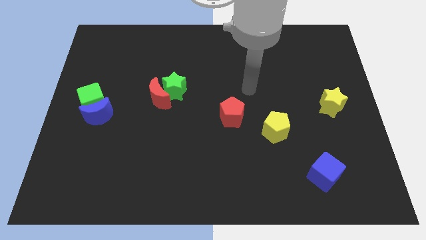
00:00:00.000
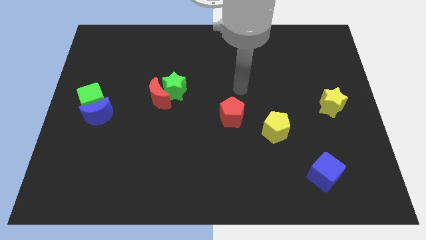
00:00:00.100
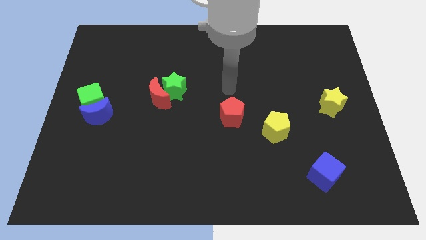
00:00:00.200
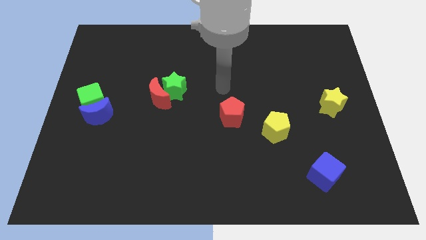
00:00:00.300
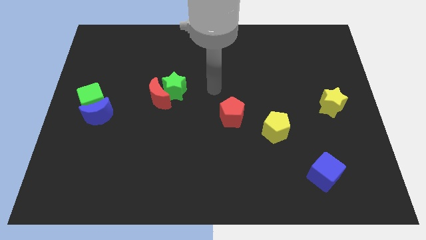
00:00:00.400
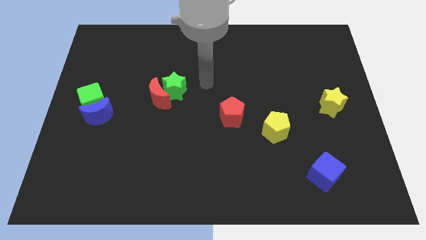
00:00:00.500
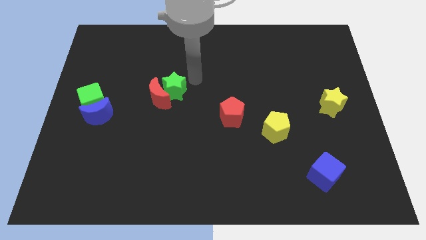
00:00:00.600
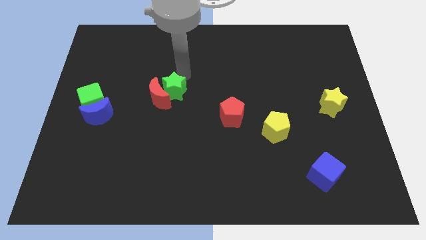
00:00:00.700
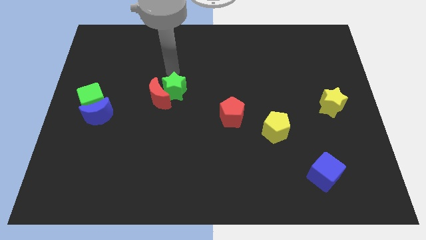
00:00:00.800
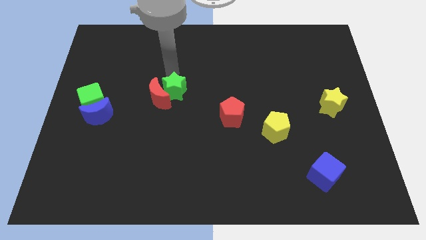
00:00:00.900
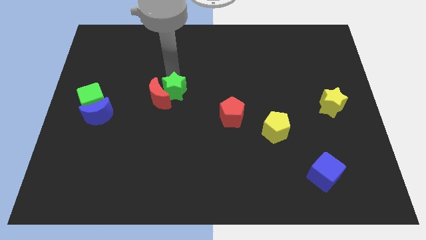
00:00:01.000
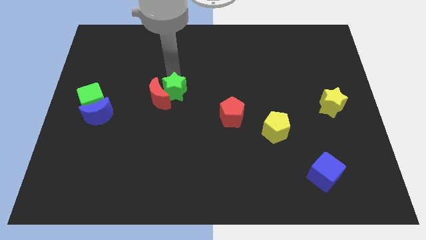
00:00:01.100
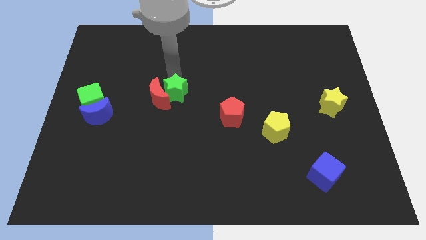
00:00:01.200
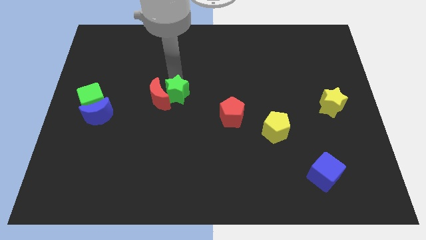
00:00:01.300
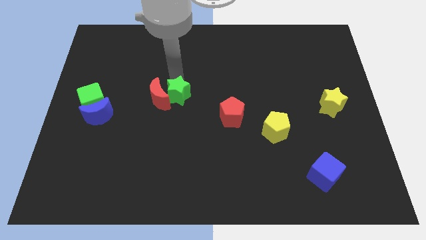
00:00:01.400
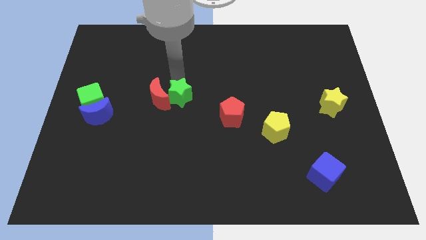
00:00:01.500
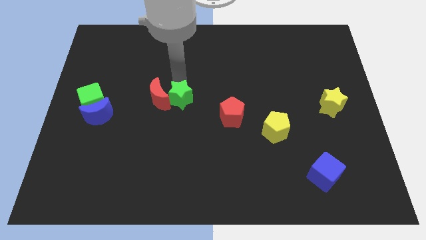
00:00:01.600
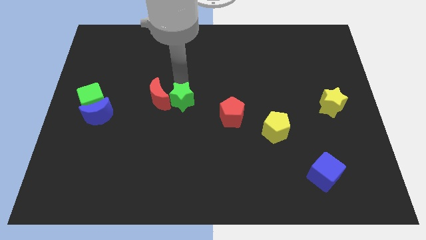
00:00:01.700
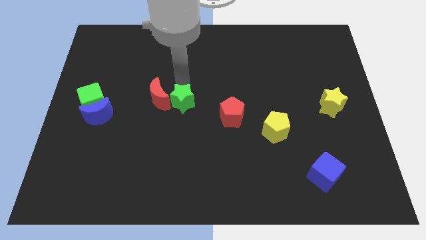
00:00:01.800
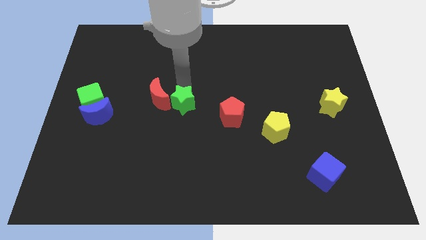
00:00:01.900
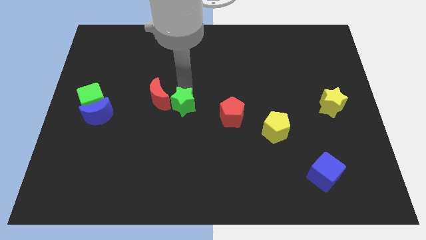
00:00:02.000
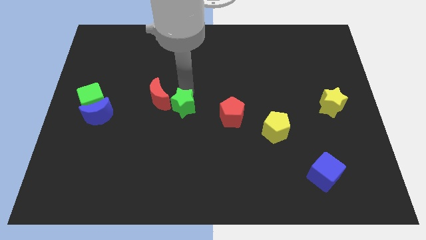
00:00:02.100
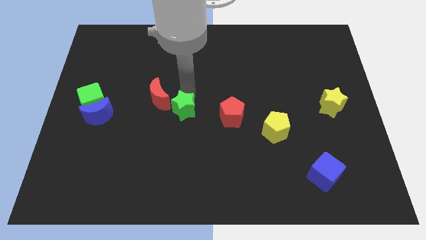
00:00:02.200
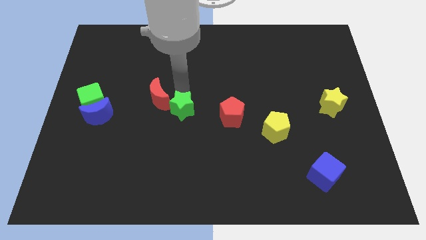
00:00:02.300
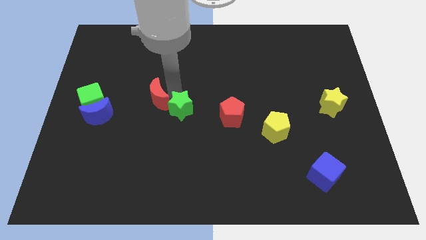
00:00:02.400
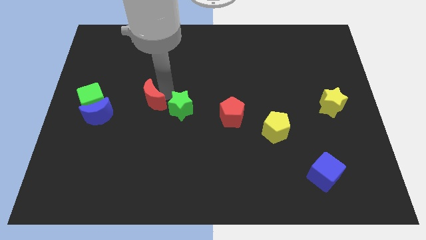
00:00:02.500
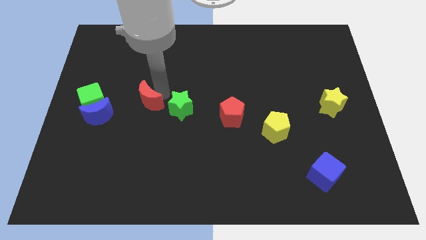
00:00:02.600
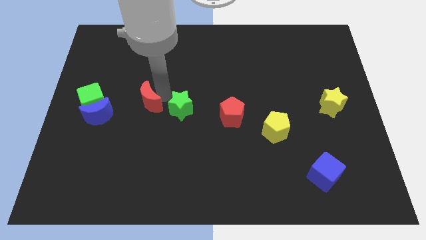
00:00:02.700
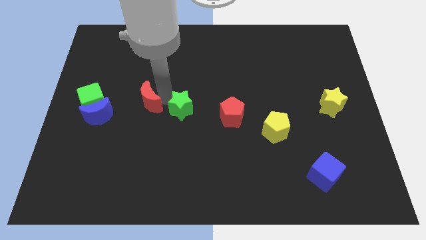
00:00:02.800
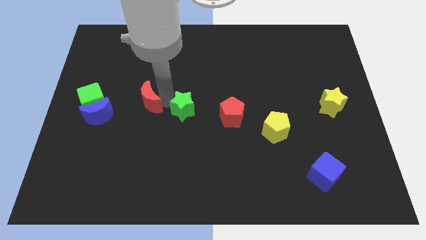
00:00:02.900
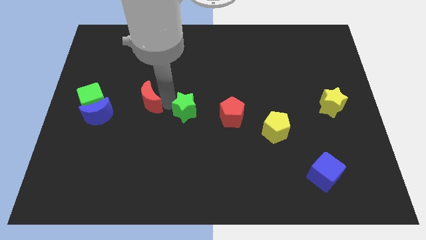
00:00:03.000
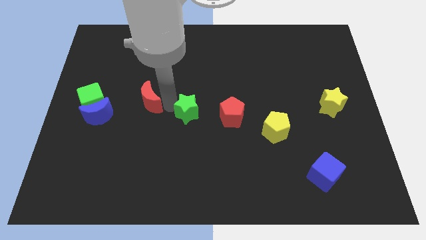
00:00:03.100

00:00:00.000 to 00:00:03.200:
slide the green star downwards and to the right diagonally slightly

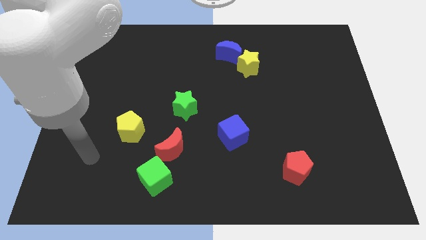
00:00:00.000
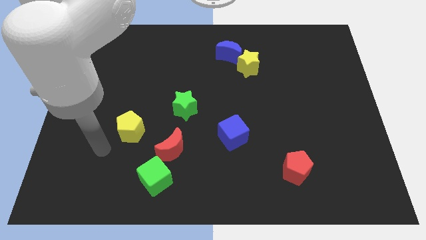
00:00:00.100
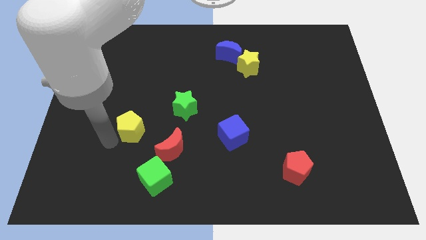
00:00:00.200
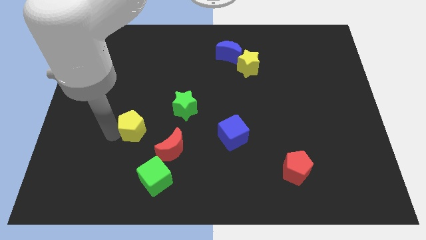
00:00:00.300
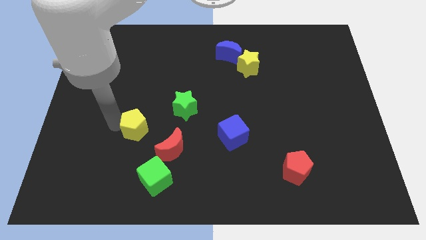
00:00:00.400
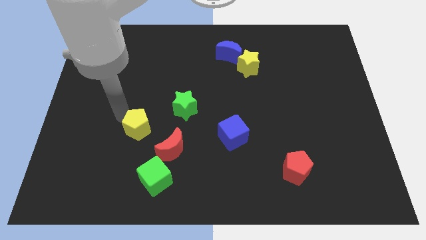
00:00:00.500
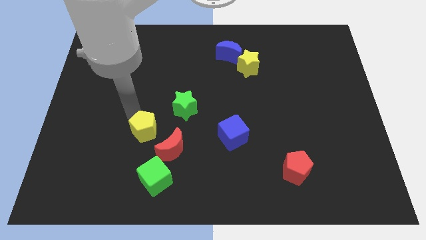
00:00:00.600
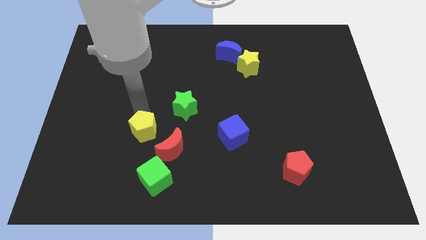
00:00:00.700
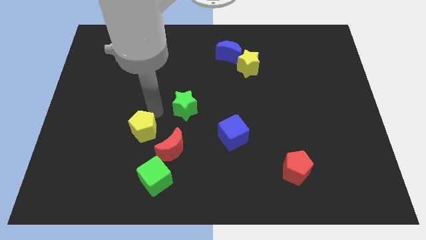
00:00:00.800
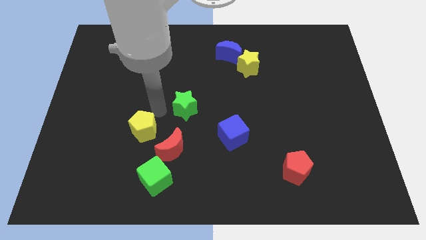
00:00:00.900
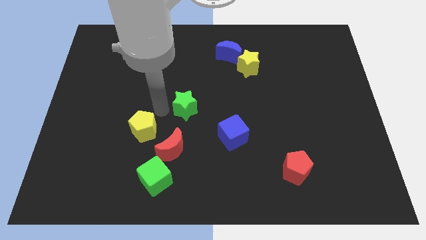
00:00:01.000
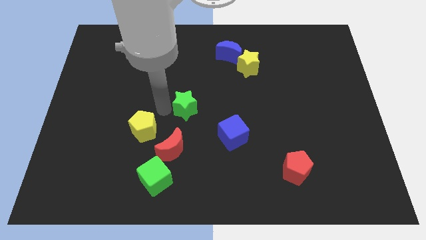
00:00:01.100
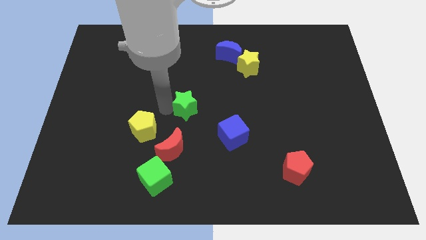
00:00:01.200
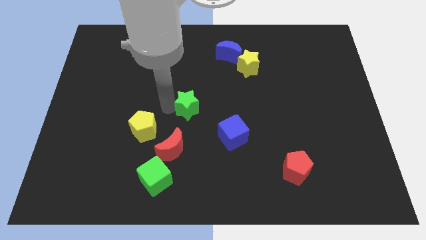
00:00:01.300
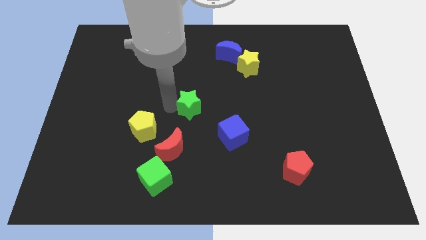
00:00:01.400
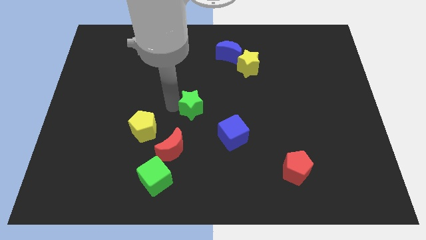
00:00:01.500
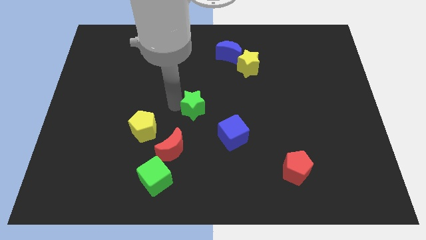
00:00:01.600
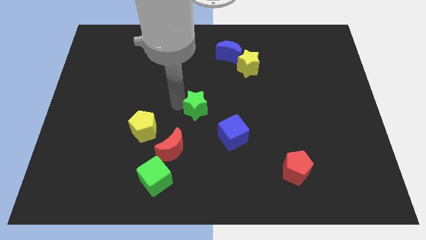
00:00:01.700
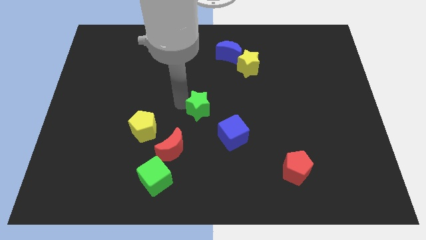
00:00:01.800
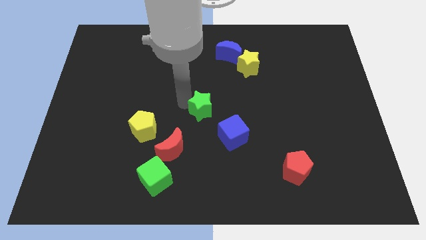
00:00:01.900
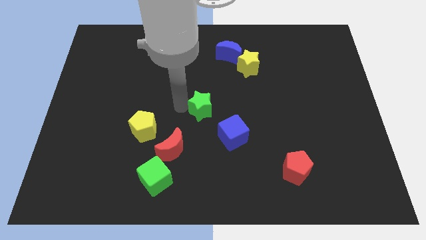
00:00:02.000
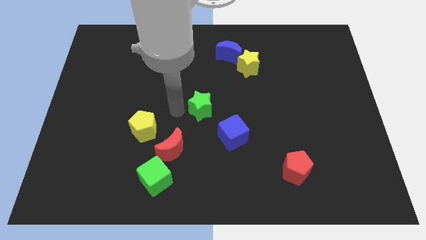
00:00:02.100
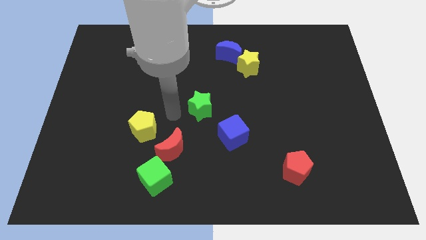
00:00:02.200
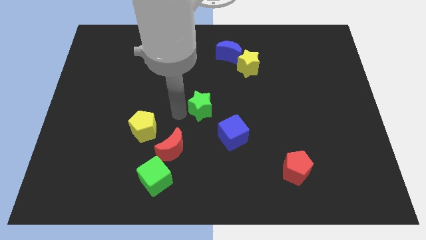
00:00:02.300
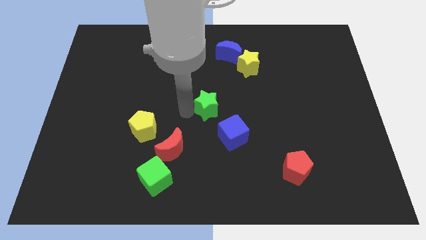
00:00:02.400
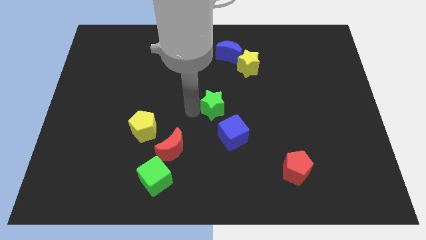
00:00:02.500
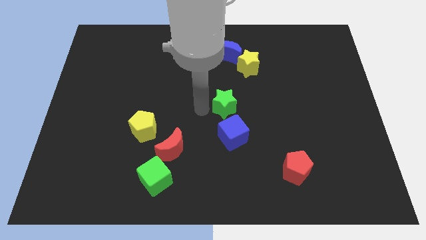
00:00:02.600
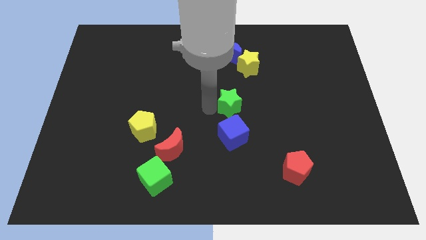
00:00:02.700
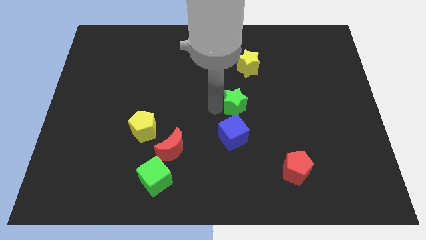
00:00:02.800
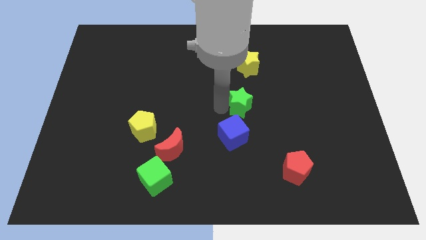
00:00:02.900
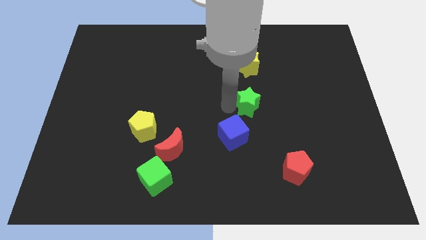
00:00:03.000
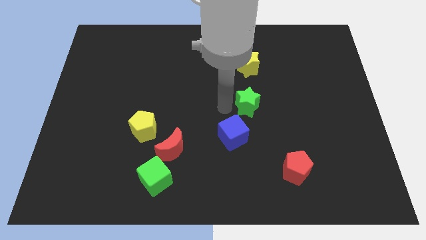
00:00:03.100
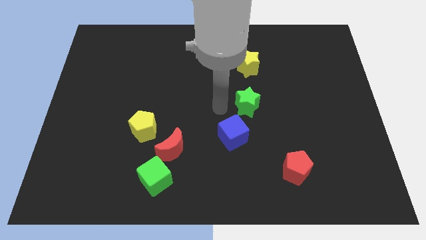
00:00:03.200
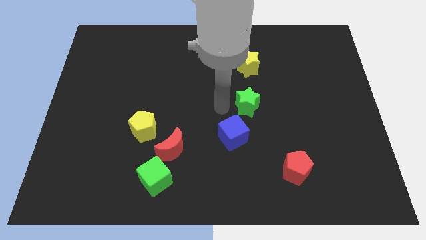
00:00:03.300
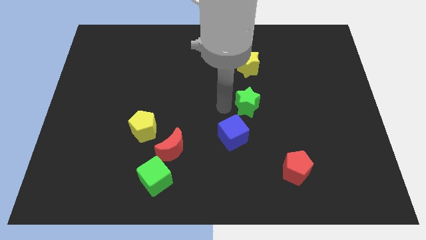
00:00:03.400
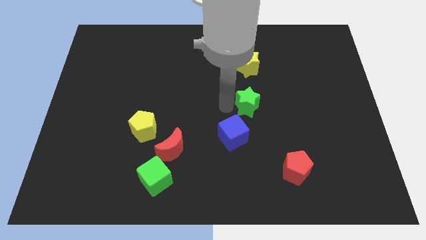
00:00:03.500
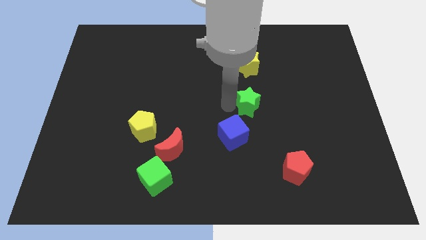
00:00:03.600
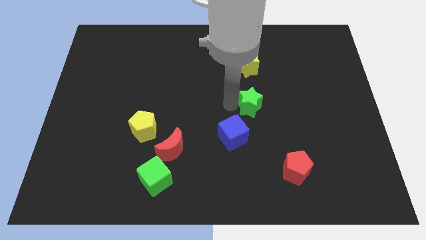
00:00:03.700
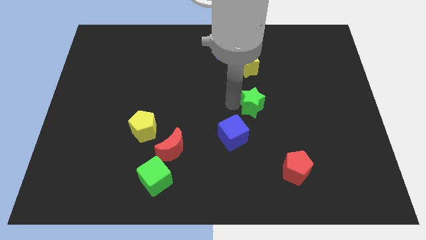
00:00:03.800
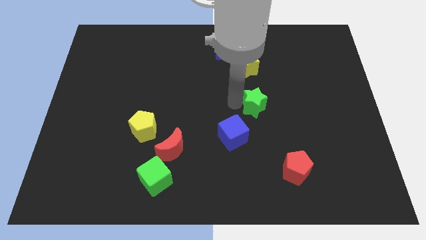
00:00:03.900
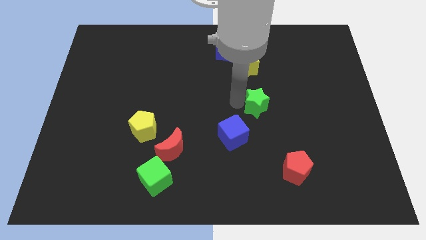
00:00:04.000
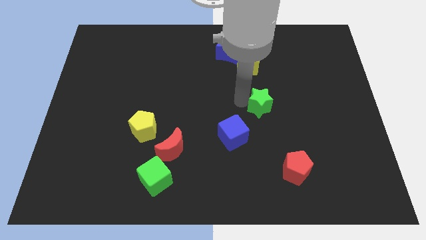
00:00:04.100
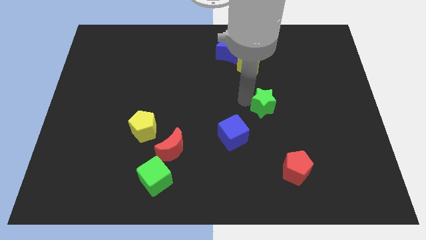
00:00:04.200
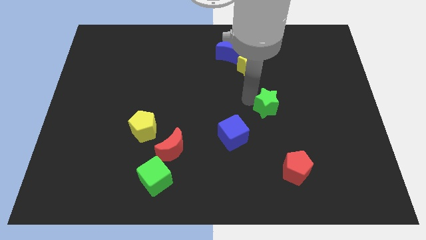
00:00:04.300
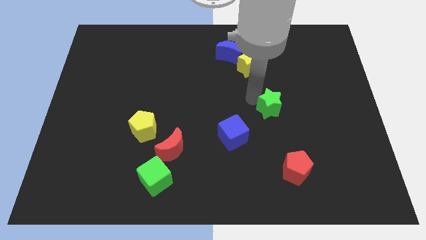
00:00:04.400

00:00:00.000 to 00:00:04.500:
push the green star right

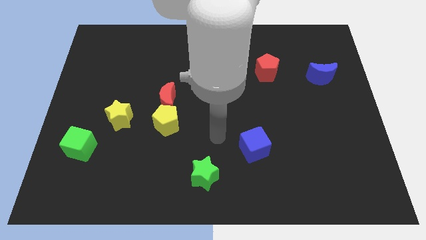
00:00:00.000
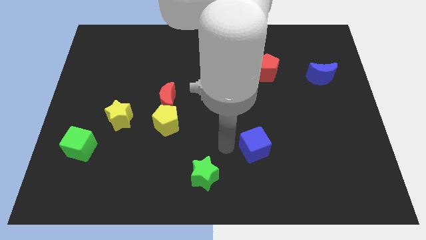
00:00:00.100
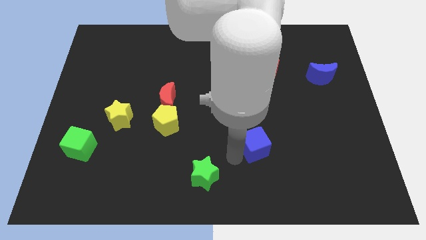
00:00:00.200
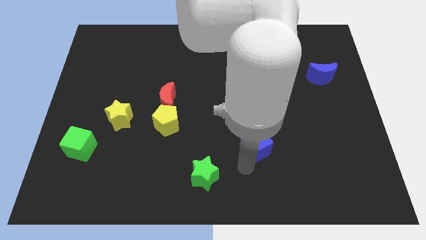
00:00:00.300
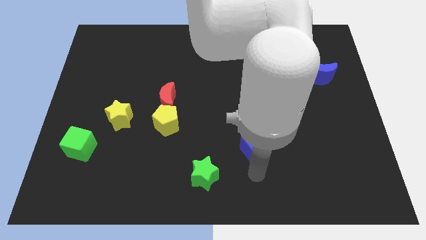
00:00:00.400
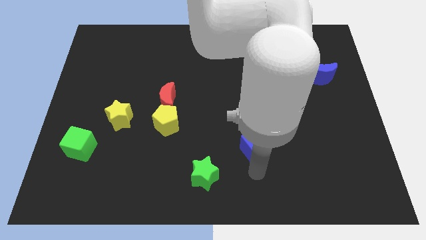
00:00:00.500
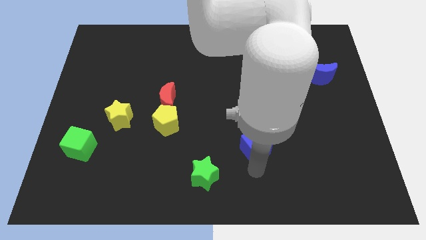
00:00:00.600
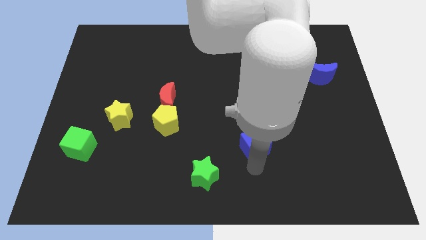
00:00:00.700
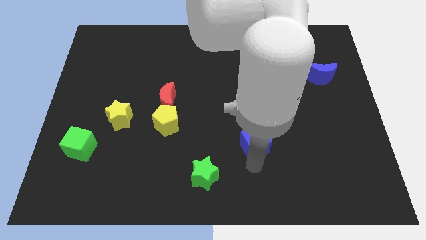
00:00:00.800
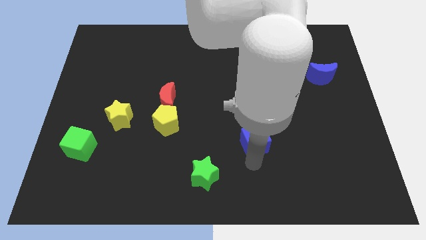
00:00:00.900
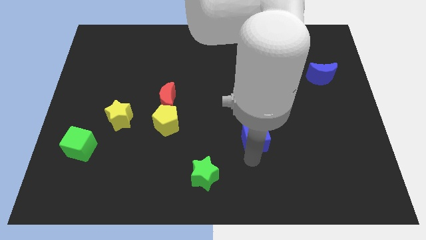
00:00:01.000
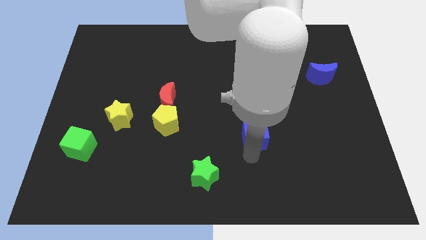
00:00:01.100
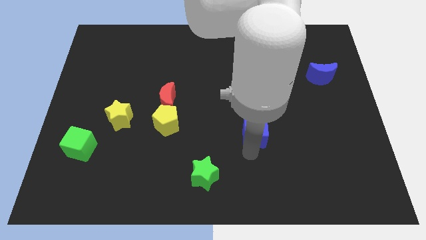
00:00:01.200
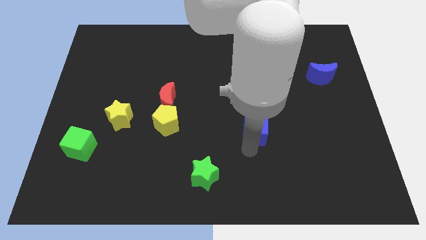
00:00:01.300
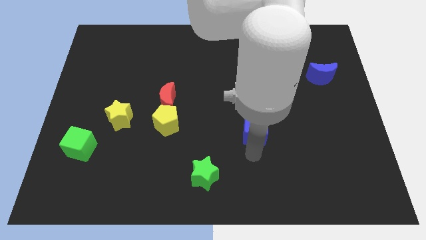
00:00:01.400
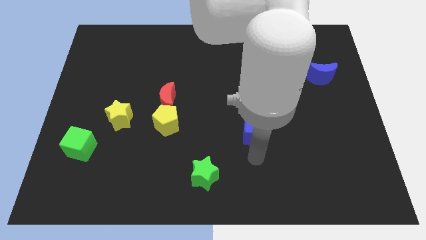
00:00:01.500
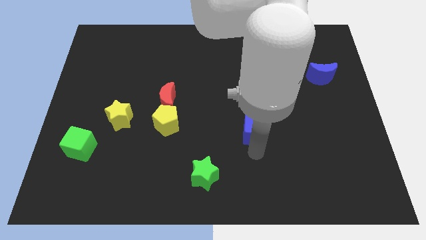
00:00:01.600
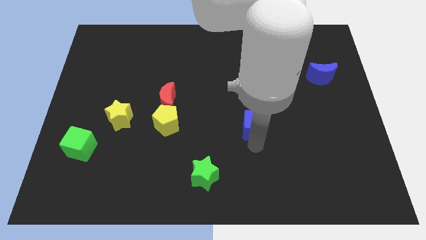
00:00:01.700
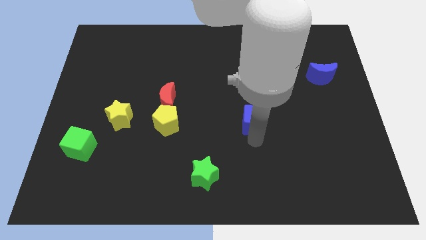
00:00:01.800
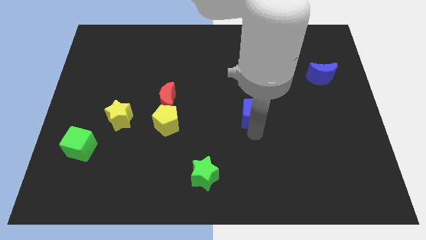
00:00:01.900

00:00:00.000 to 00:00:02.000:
slide the blue cube a bit upwards
